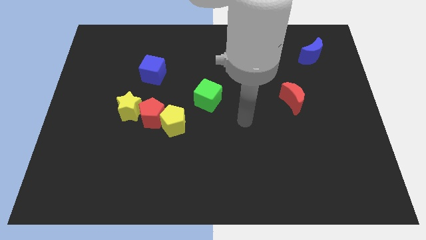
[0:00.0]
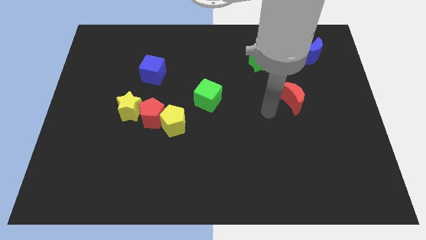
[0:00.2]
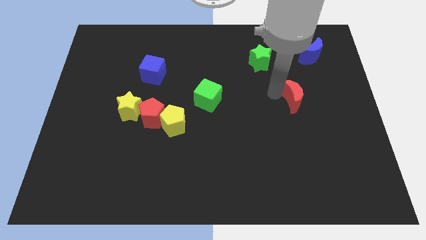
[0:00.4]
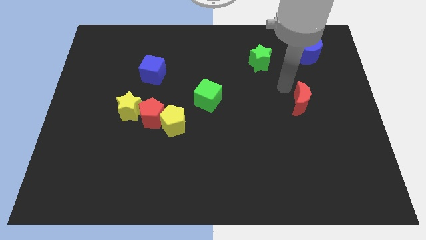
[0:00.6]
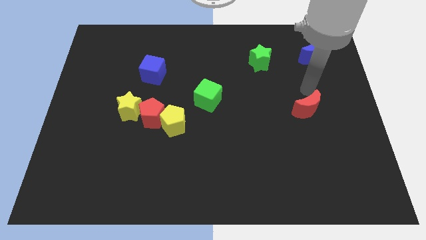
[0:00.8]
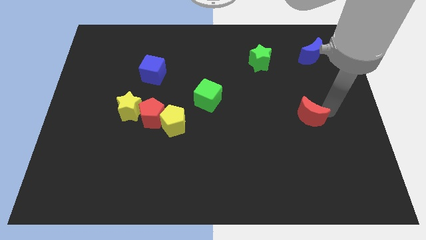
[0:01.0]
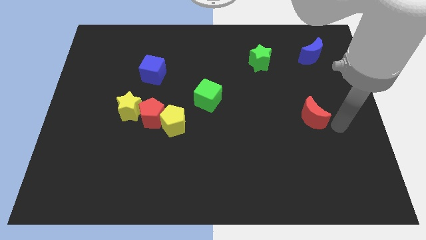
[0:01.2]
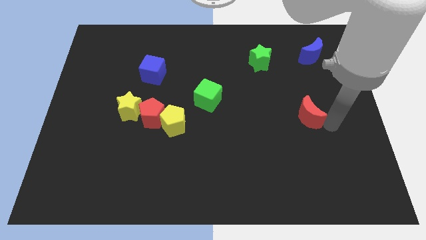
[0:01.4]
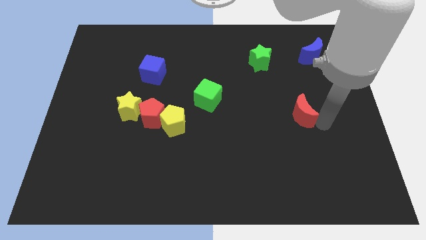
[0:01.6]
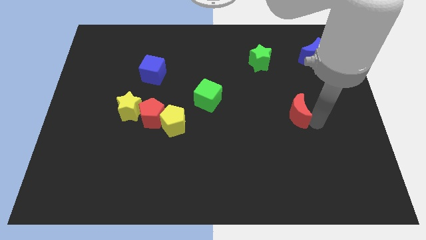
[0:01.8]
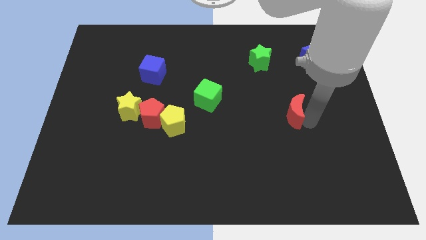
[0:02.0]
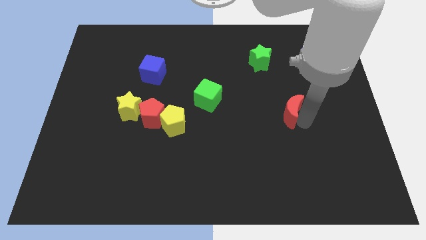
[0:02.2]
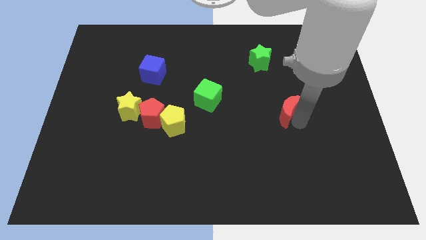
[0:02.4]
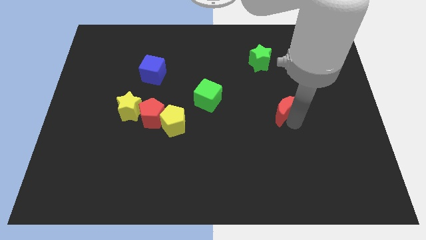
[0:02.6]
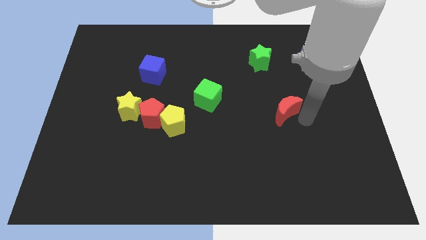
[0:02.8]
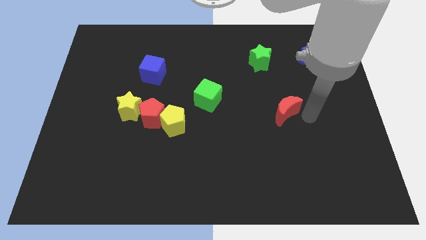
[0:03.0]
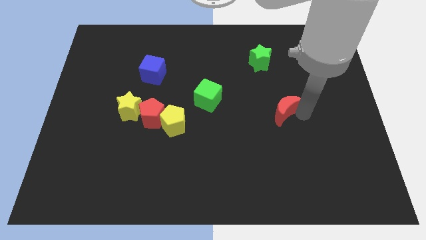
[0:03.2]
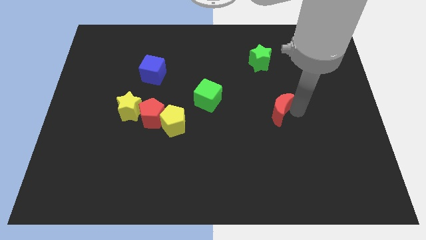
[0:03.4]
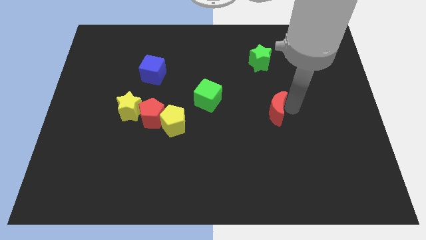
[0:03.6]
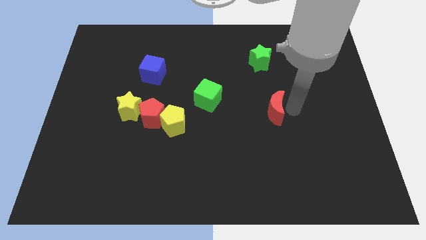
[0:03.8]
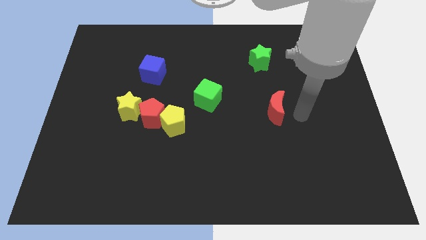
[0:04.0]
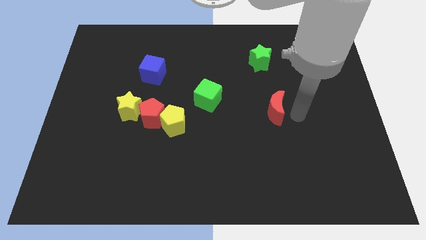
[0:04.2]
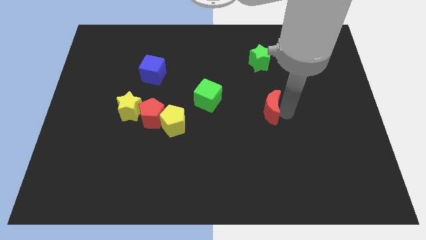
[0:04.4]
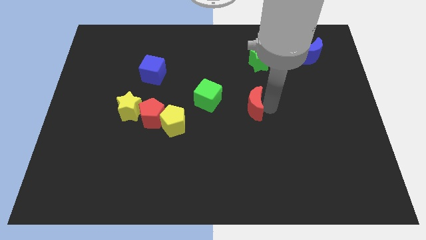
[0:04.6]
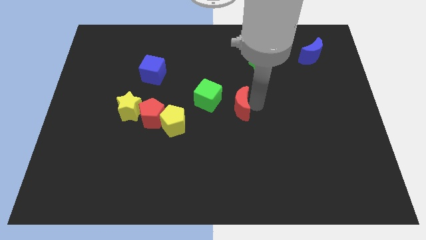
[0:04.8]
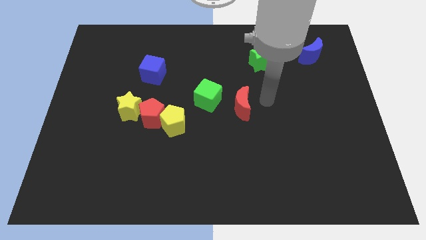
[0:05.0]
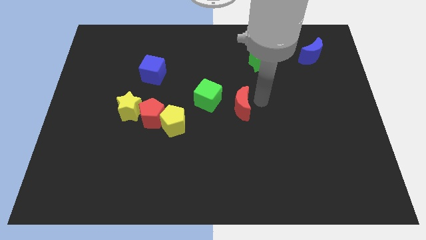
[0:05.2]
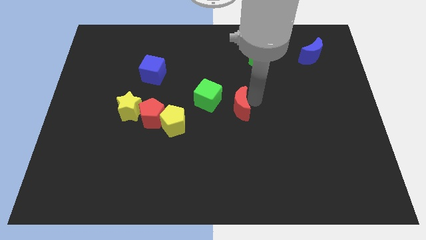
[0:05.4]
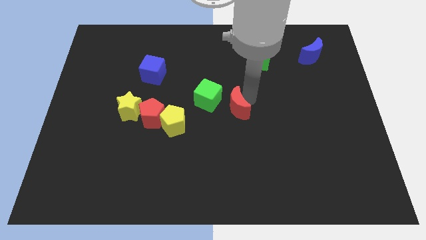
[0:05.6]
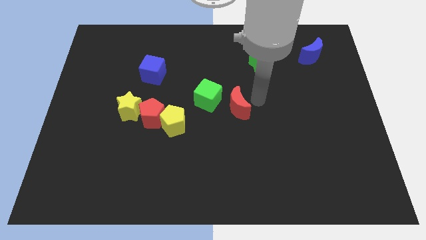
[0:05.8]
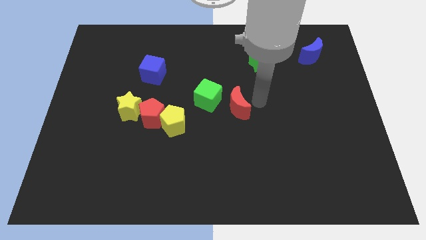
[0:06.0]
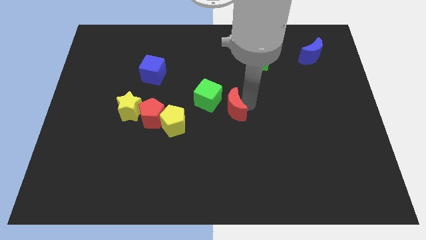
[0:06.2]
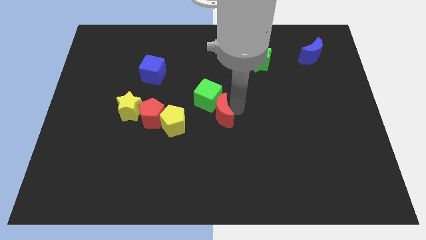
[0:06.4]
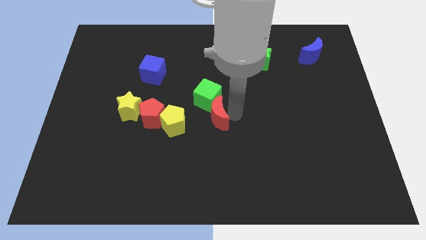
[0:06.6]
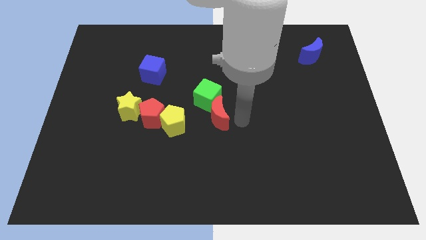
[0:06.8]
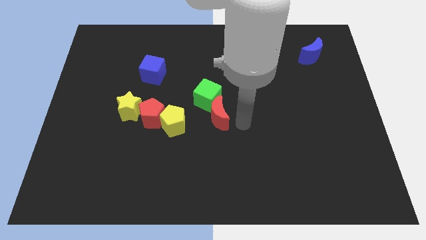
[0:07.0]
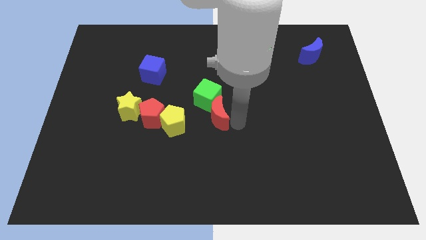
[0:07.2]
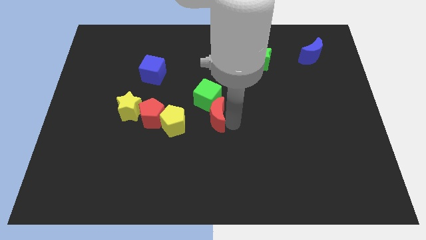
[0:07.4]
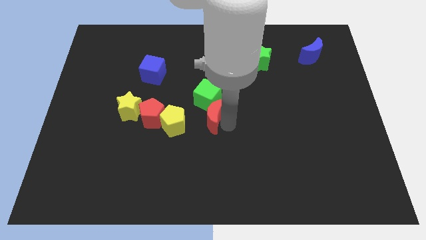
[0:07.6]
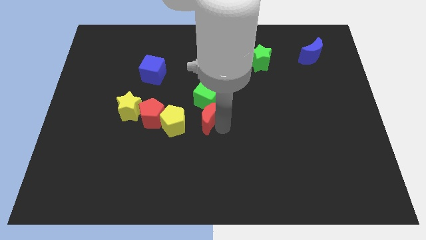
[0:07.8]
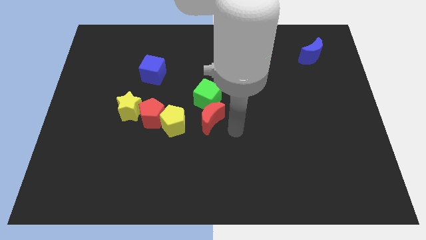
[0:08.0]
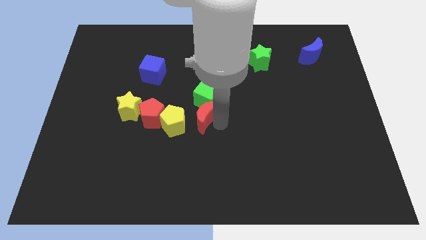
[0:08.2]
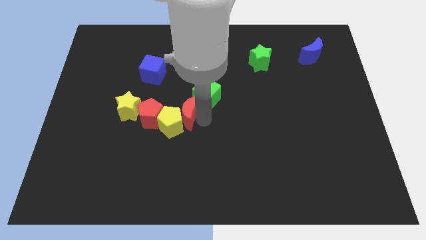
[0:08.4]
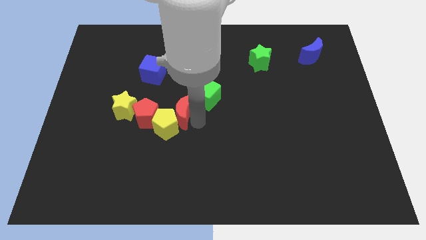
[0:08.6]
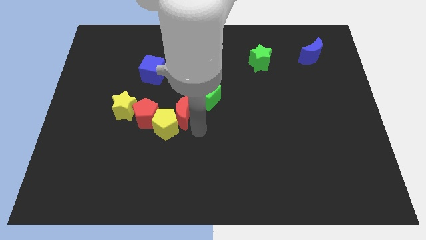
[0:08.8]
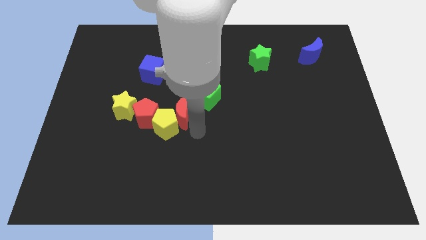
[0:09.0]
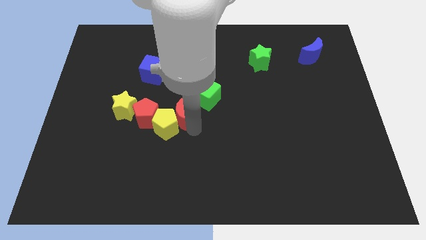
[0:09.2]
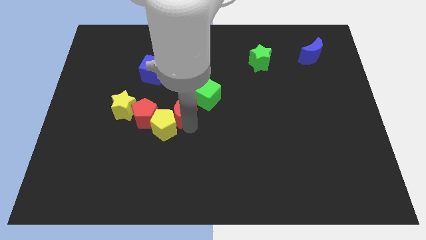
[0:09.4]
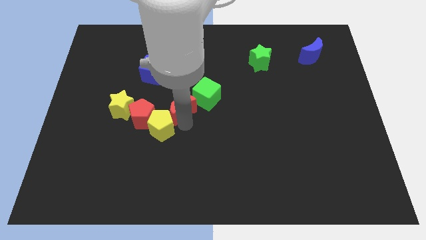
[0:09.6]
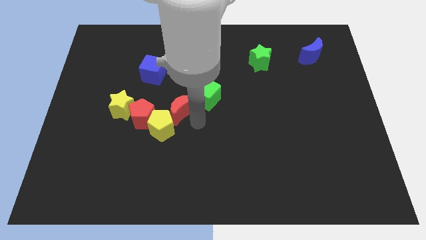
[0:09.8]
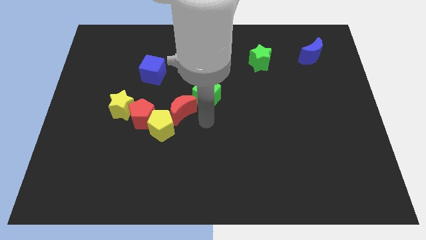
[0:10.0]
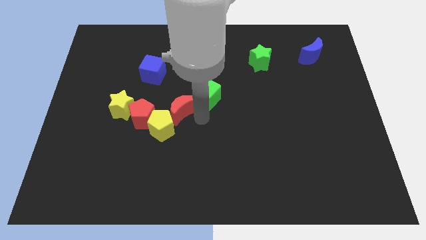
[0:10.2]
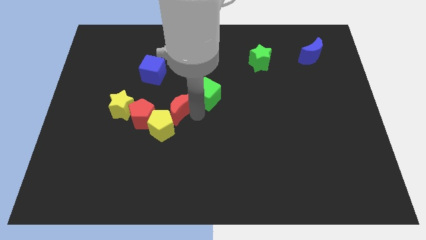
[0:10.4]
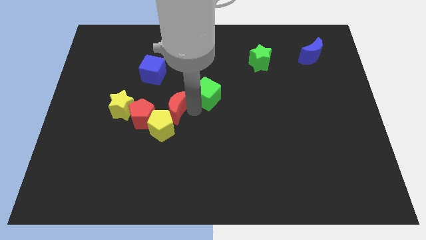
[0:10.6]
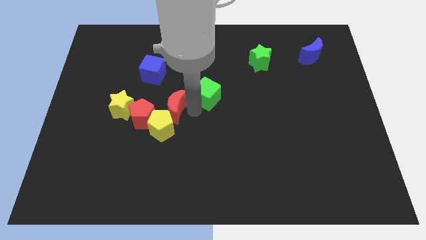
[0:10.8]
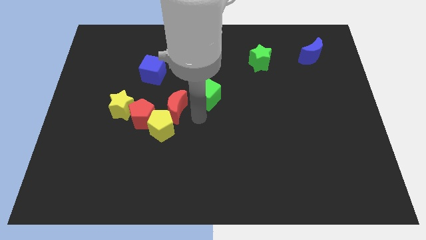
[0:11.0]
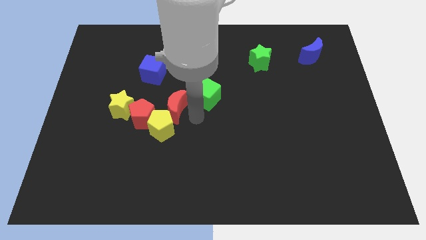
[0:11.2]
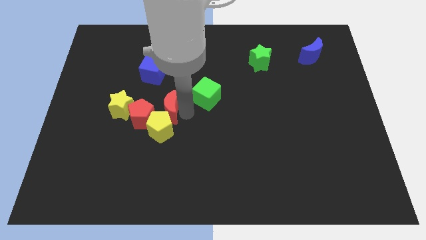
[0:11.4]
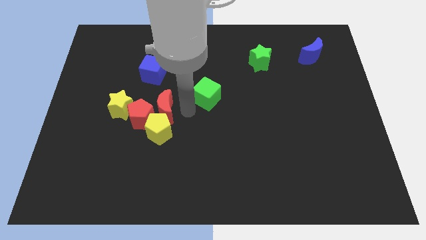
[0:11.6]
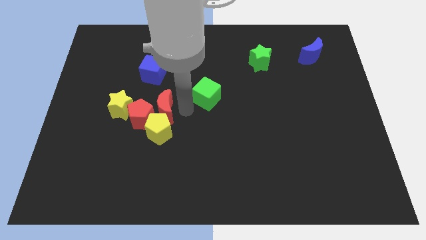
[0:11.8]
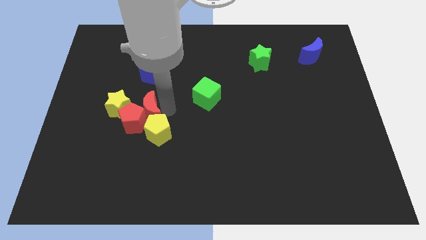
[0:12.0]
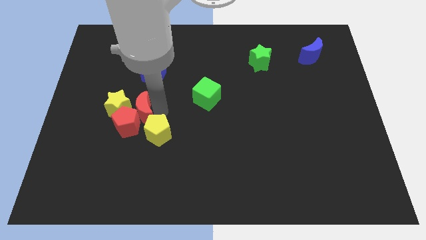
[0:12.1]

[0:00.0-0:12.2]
push the red moon to the yellow star

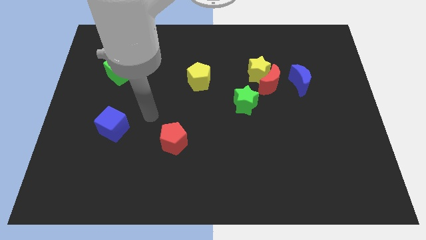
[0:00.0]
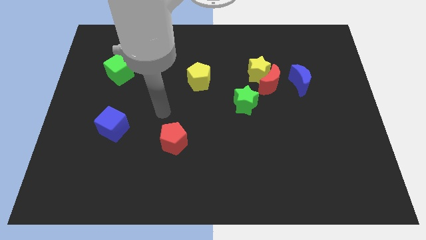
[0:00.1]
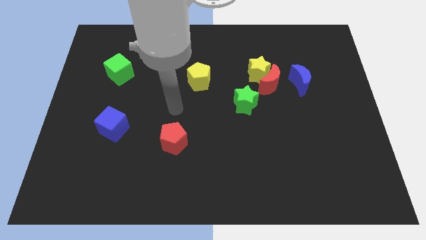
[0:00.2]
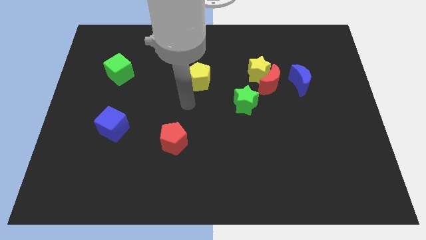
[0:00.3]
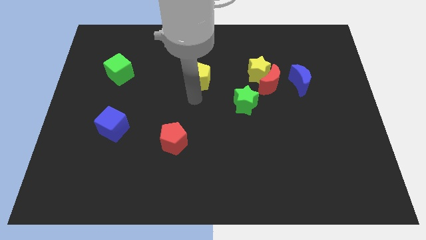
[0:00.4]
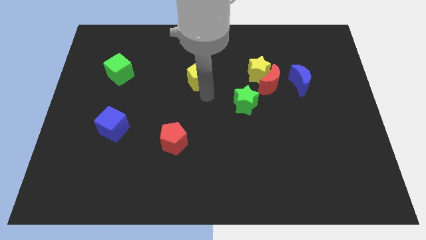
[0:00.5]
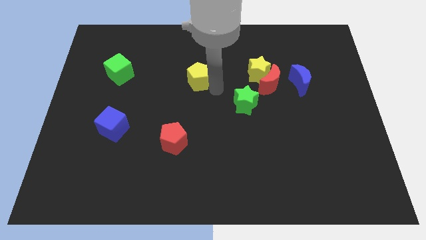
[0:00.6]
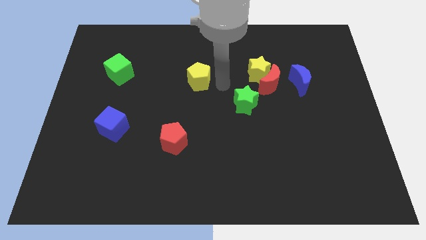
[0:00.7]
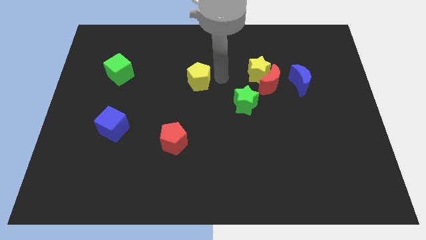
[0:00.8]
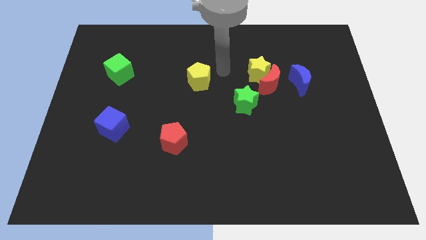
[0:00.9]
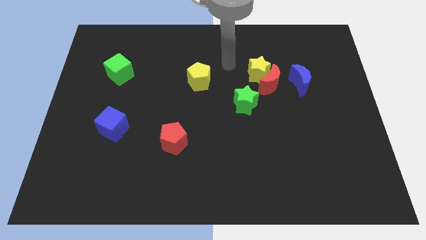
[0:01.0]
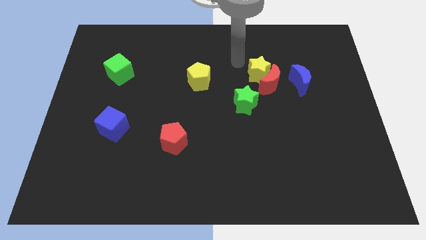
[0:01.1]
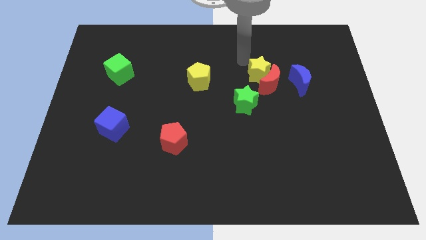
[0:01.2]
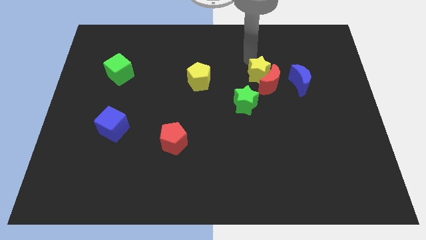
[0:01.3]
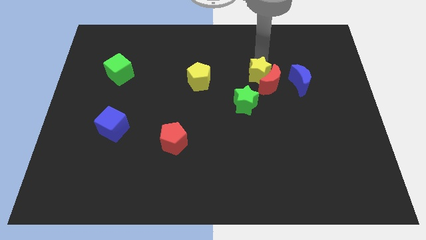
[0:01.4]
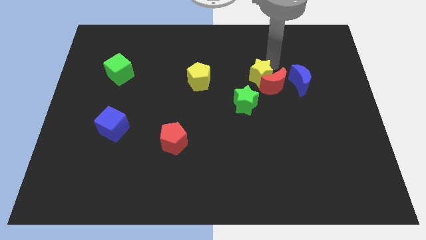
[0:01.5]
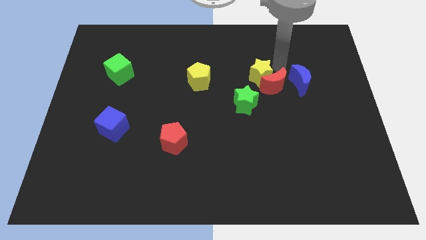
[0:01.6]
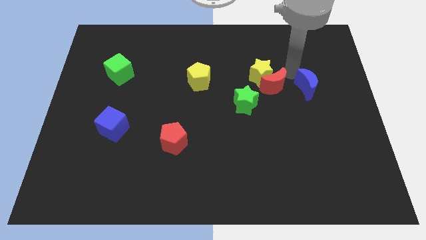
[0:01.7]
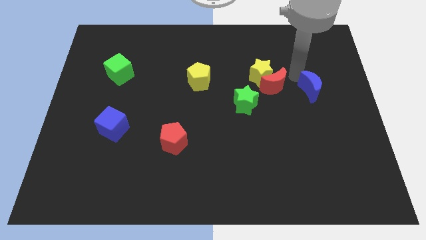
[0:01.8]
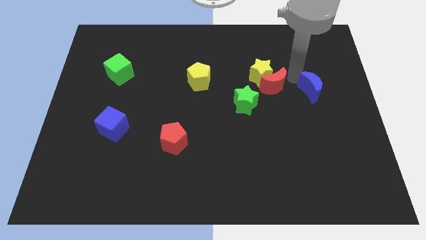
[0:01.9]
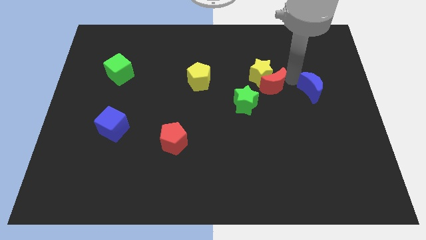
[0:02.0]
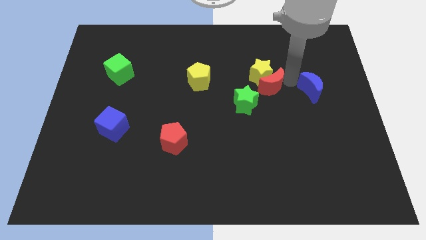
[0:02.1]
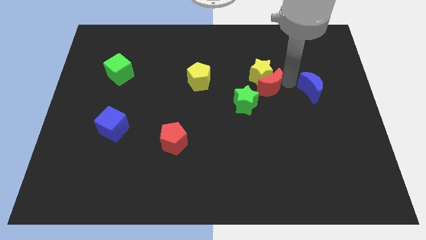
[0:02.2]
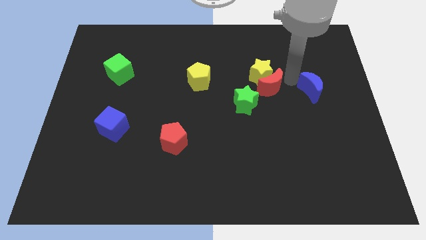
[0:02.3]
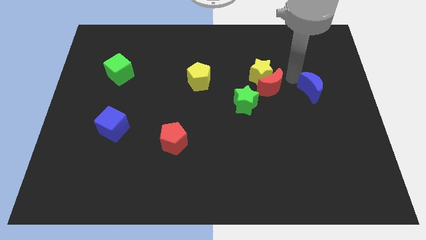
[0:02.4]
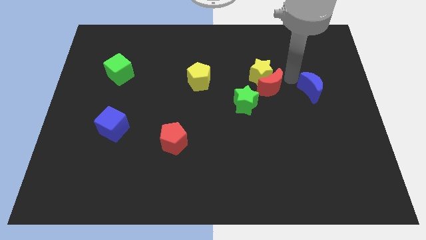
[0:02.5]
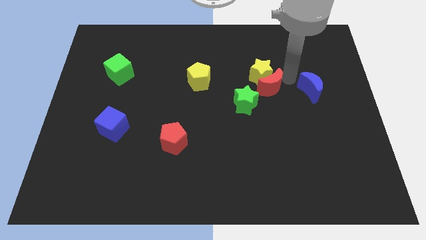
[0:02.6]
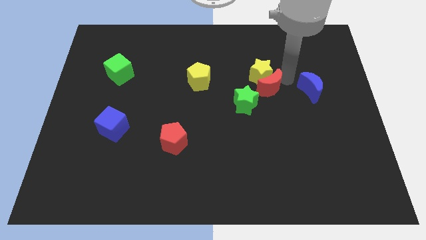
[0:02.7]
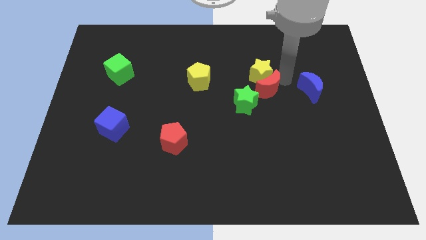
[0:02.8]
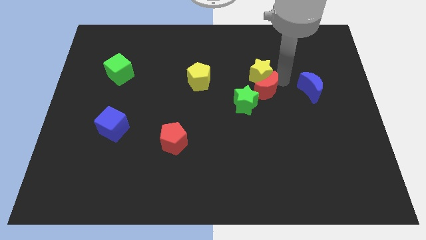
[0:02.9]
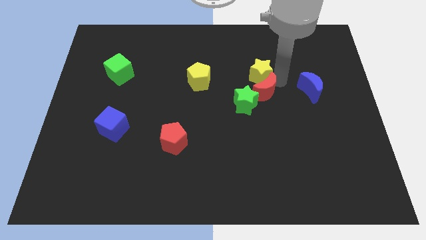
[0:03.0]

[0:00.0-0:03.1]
put the red moon close to the green star
